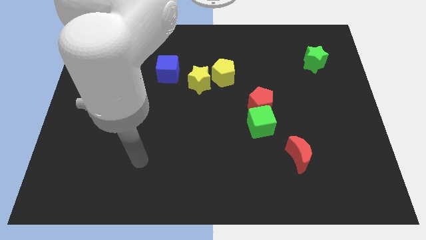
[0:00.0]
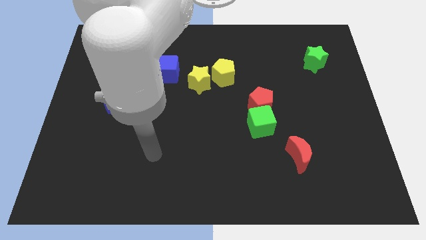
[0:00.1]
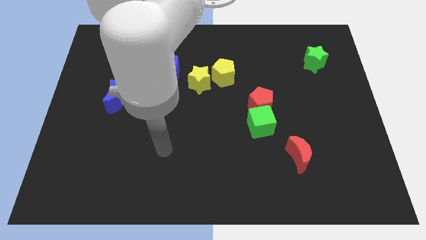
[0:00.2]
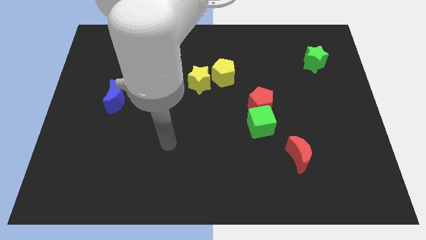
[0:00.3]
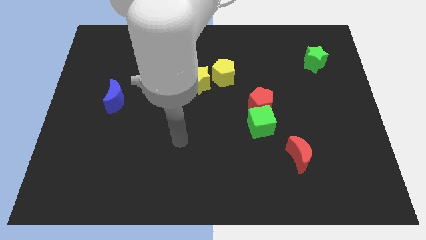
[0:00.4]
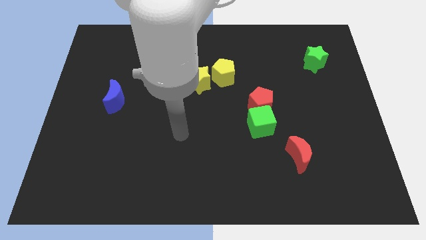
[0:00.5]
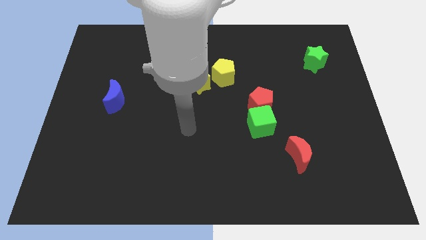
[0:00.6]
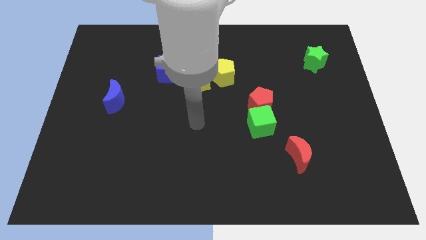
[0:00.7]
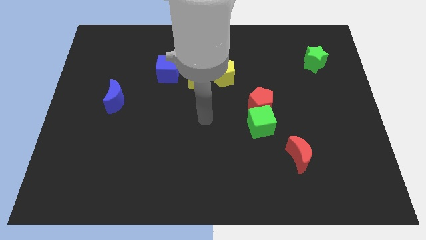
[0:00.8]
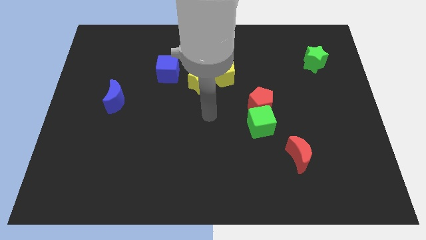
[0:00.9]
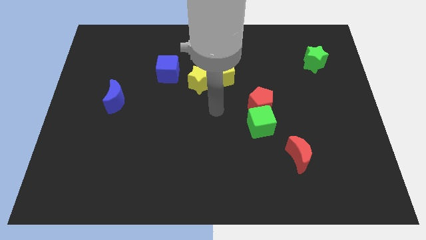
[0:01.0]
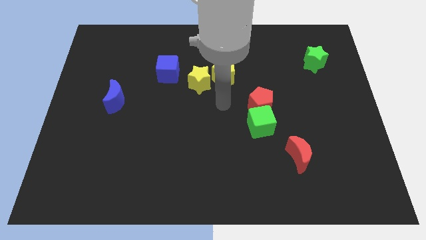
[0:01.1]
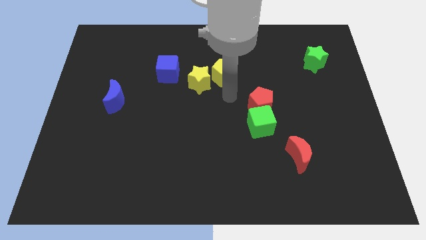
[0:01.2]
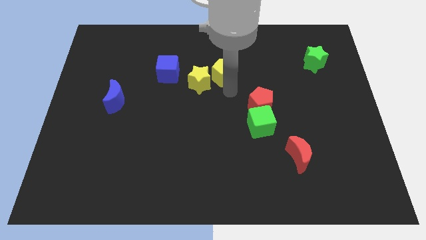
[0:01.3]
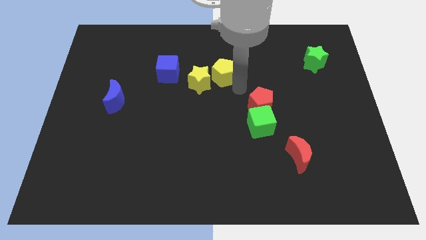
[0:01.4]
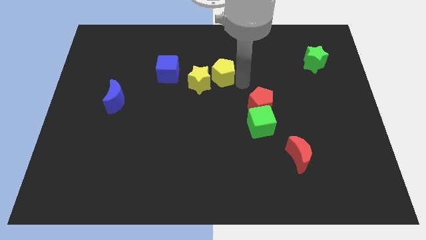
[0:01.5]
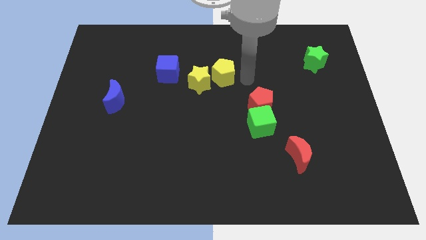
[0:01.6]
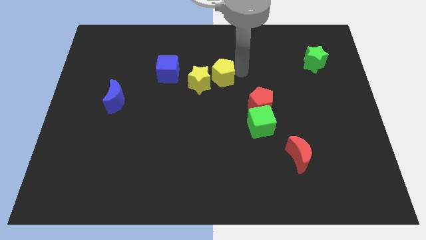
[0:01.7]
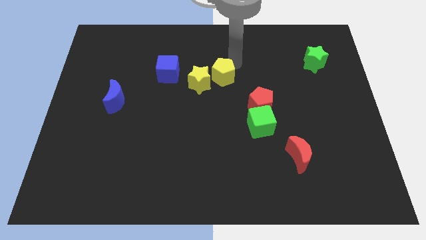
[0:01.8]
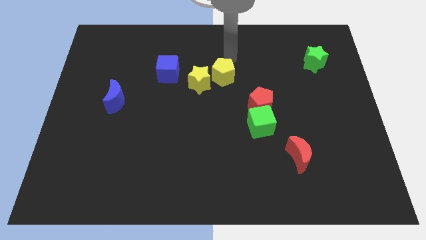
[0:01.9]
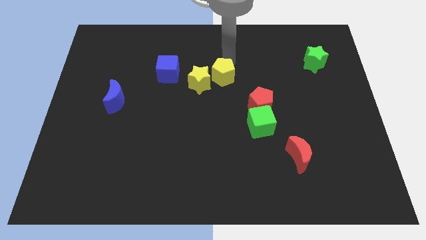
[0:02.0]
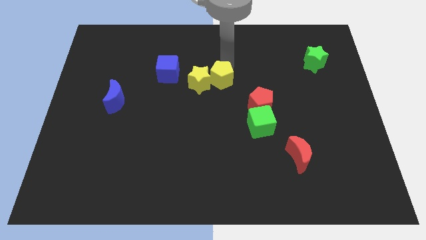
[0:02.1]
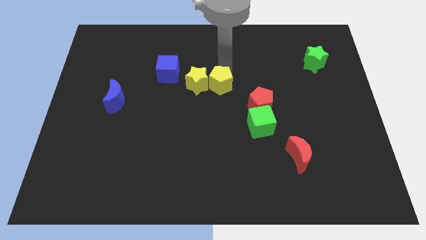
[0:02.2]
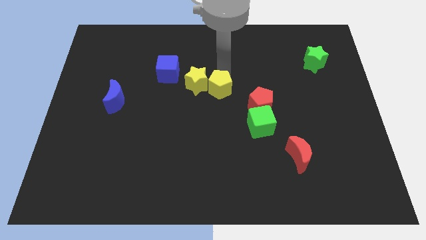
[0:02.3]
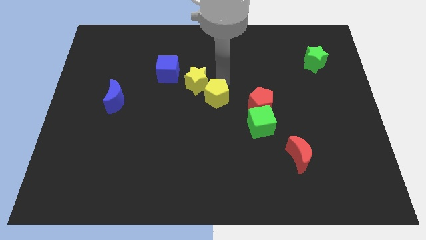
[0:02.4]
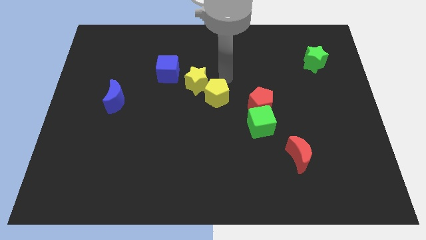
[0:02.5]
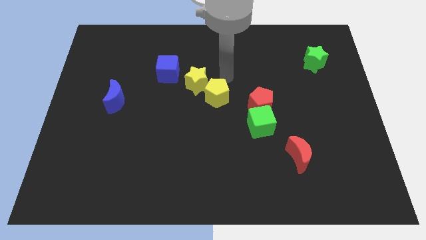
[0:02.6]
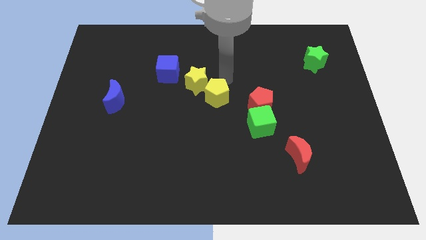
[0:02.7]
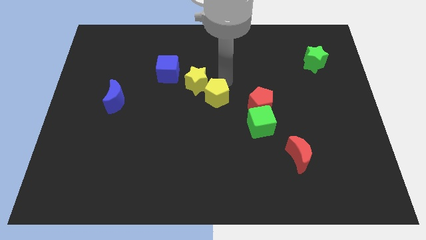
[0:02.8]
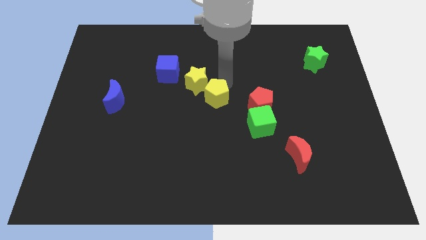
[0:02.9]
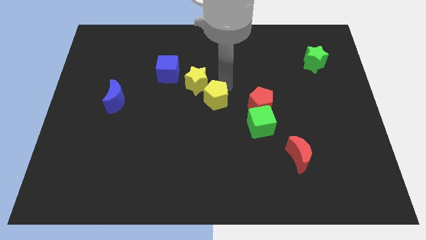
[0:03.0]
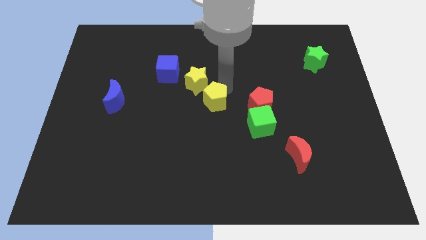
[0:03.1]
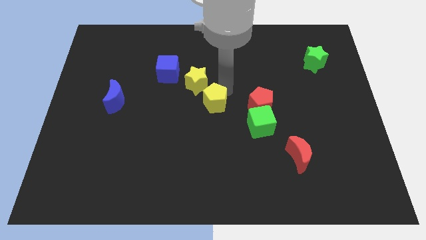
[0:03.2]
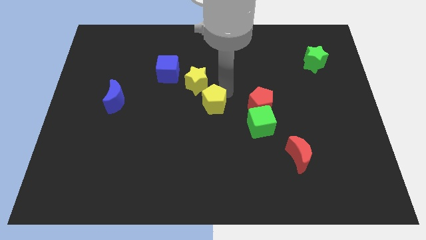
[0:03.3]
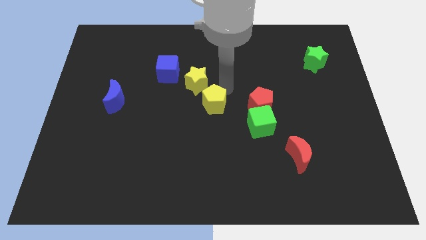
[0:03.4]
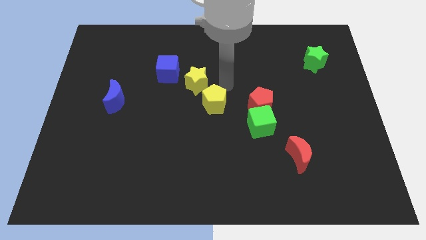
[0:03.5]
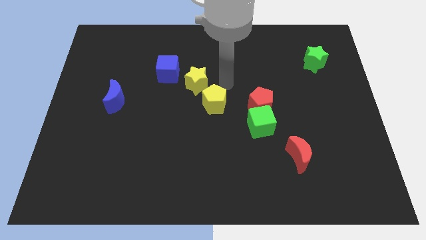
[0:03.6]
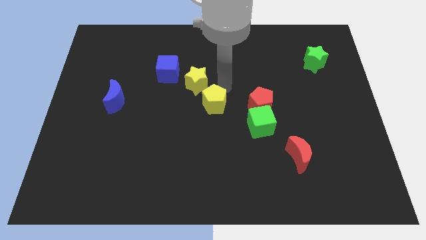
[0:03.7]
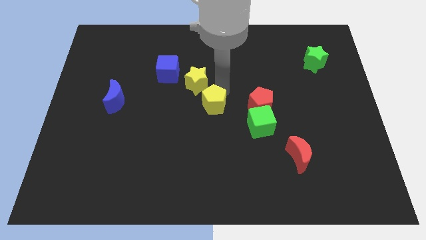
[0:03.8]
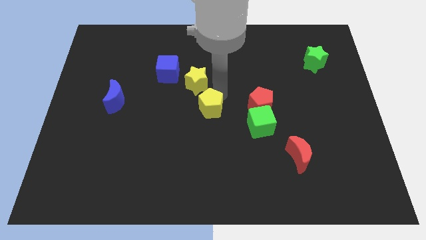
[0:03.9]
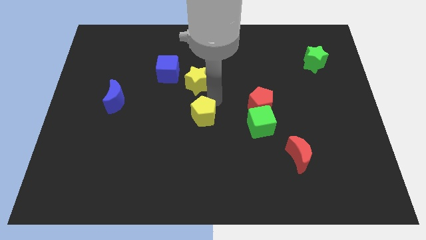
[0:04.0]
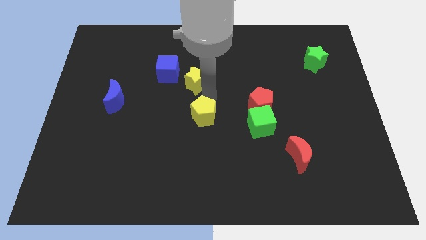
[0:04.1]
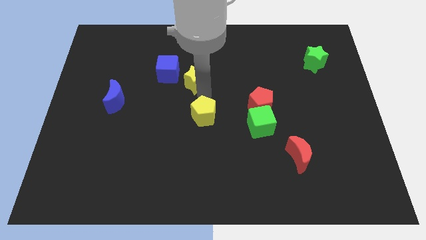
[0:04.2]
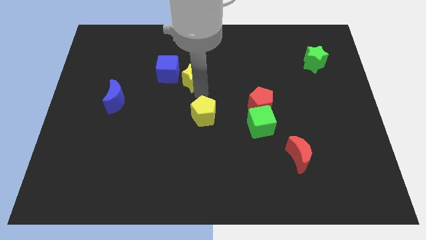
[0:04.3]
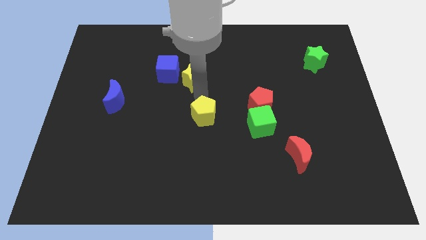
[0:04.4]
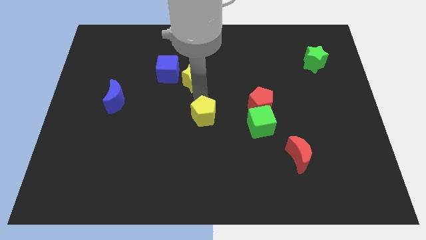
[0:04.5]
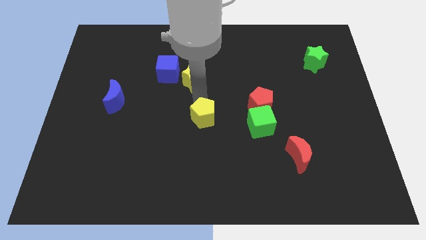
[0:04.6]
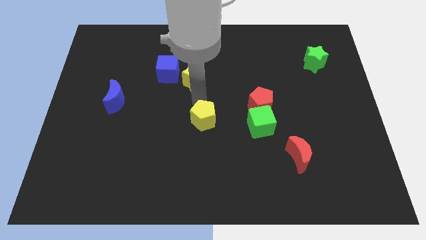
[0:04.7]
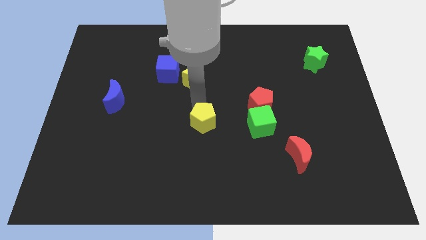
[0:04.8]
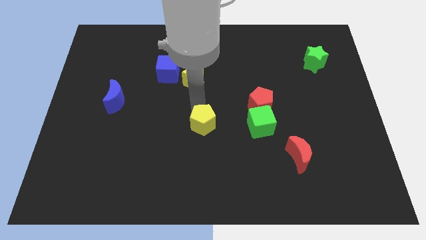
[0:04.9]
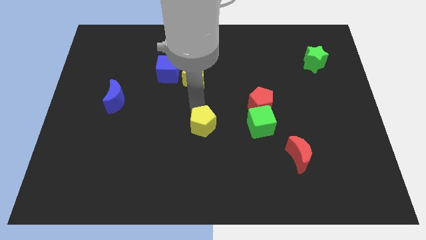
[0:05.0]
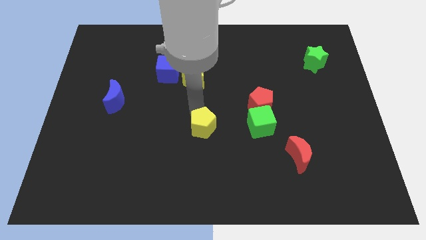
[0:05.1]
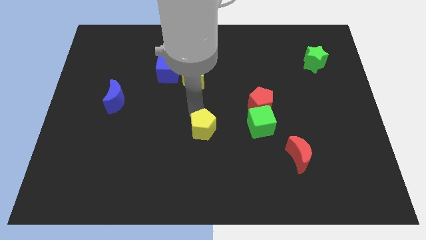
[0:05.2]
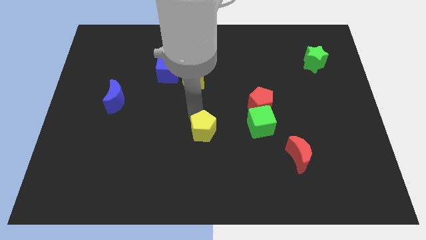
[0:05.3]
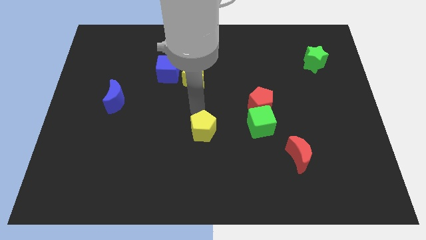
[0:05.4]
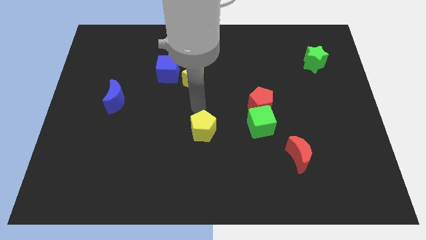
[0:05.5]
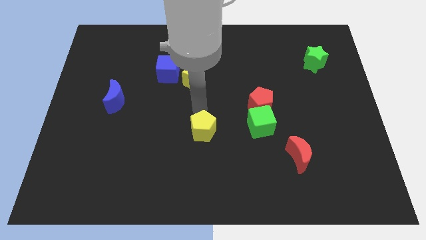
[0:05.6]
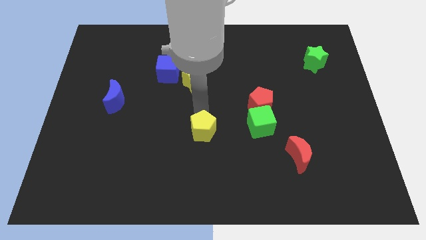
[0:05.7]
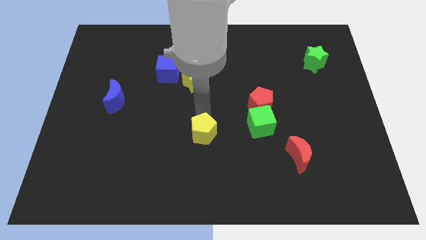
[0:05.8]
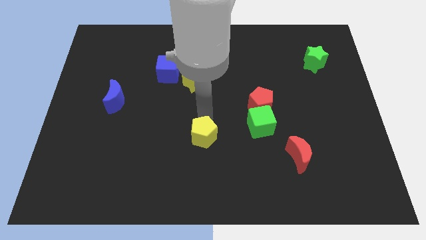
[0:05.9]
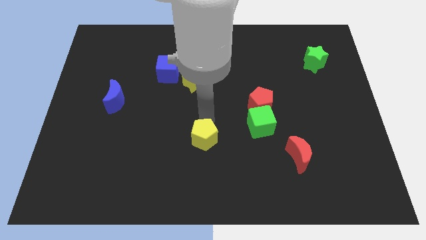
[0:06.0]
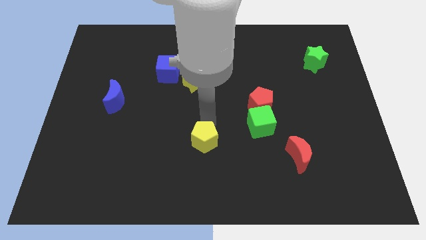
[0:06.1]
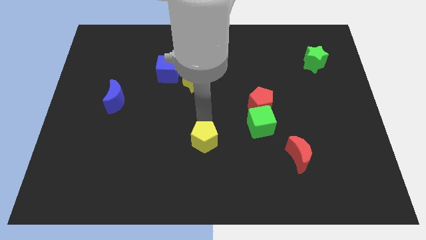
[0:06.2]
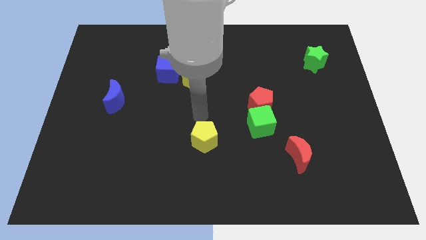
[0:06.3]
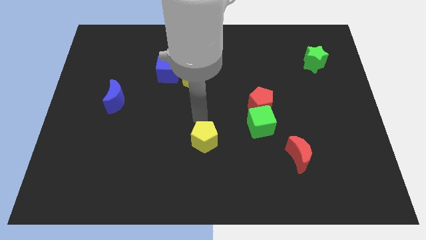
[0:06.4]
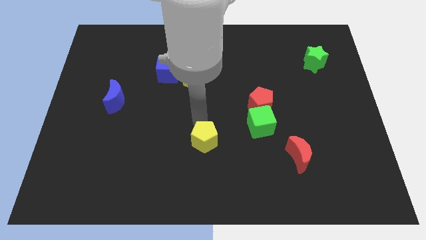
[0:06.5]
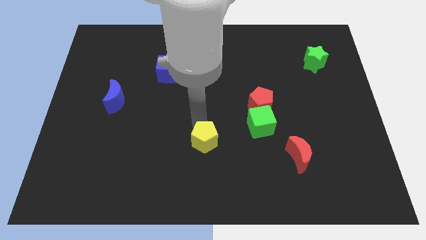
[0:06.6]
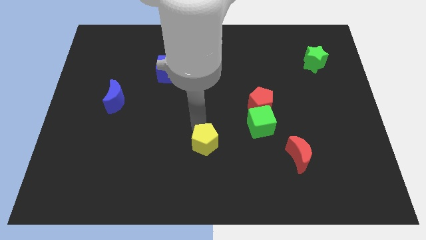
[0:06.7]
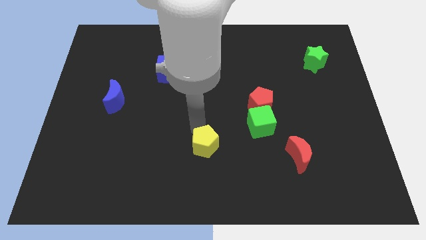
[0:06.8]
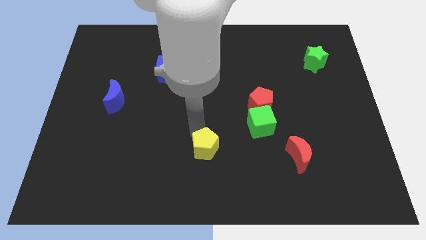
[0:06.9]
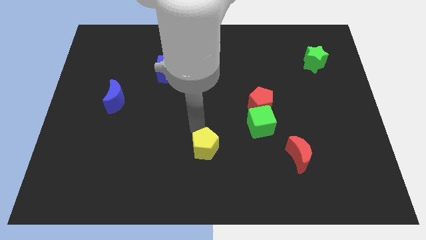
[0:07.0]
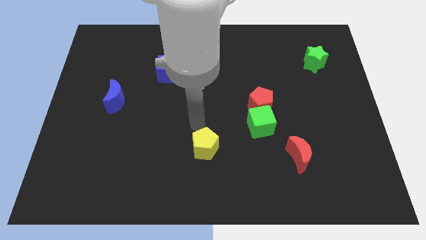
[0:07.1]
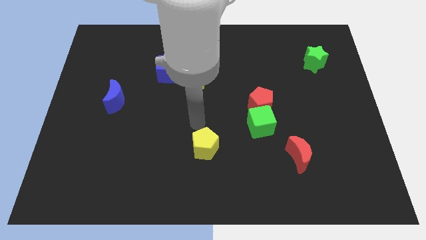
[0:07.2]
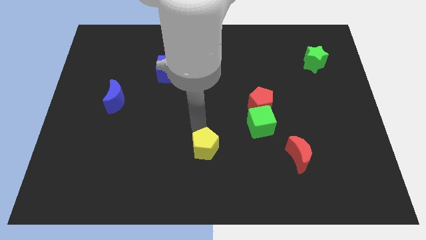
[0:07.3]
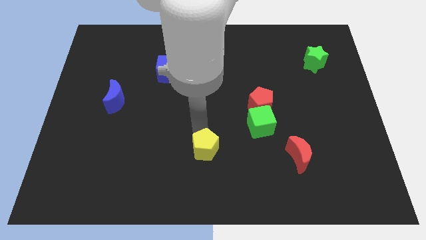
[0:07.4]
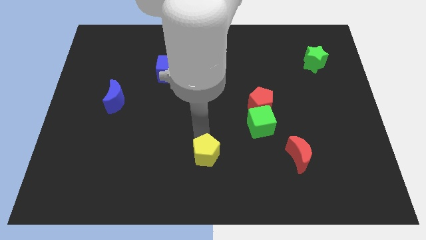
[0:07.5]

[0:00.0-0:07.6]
put the yellow pentagon to the bottom side
